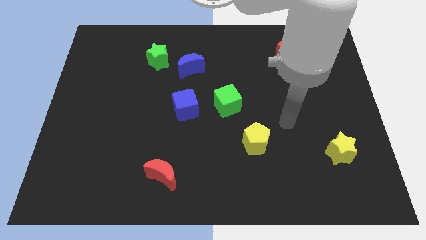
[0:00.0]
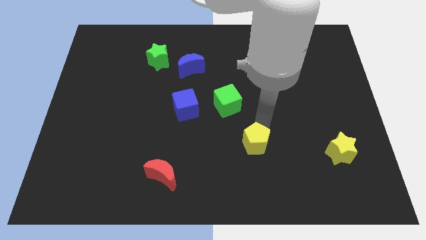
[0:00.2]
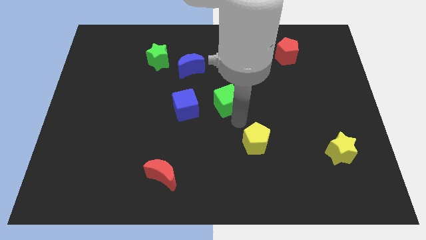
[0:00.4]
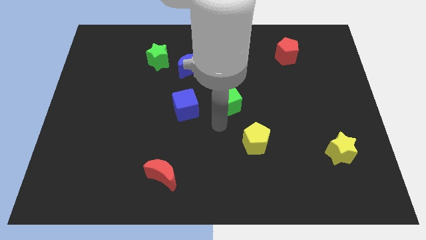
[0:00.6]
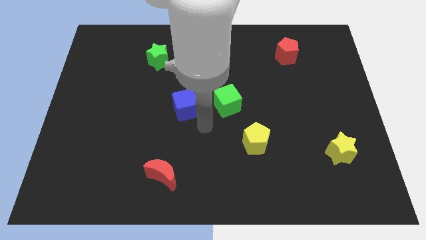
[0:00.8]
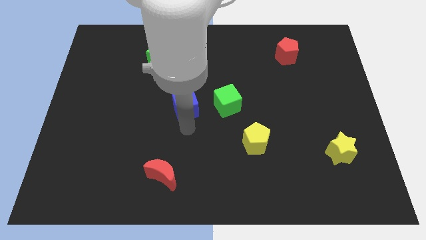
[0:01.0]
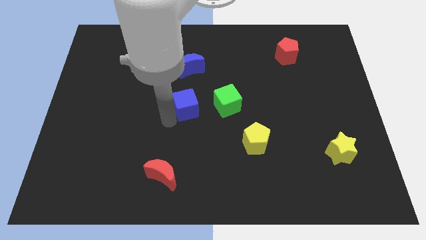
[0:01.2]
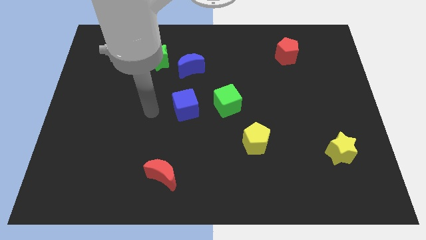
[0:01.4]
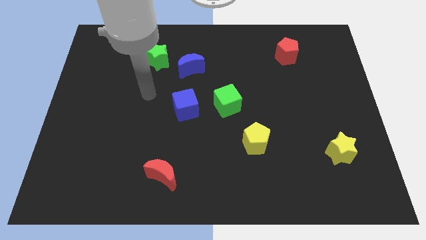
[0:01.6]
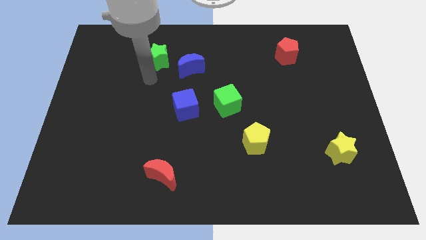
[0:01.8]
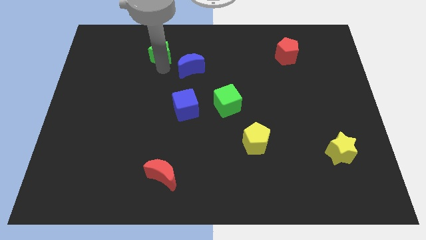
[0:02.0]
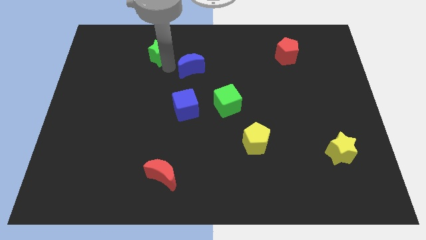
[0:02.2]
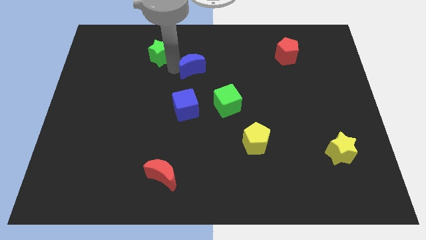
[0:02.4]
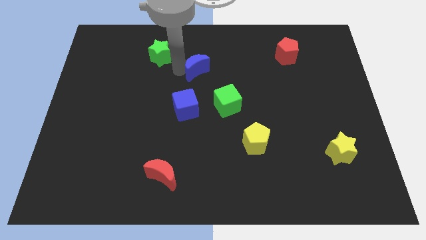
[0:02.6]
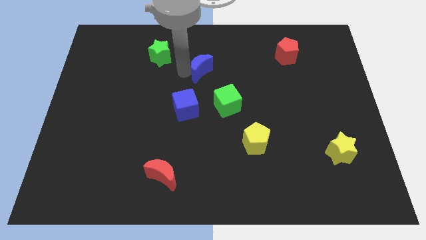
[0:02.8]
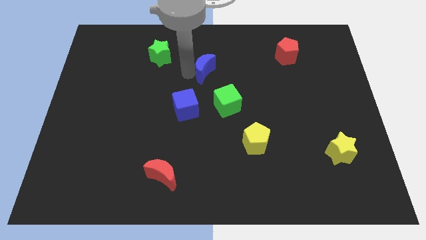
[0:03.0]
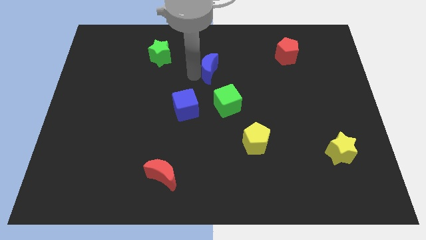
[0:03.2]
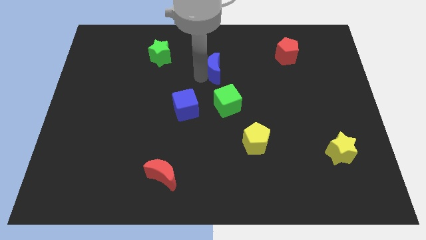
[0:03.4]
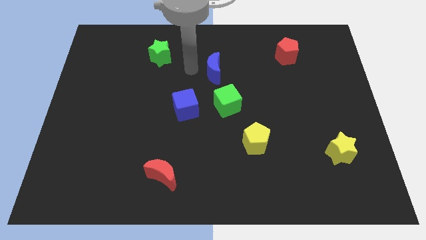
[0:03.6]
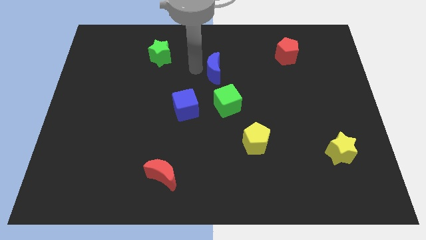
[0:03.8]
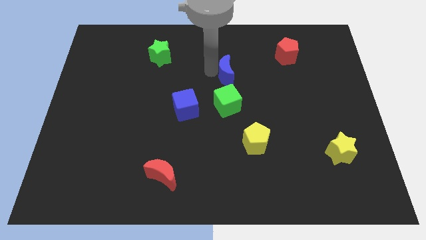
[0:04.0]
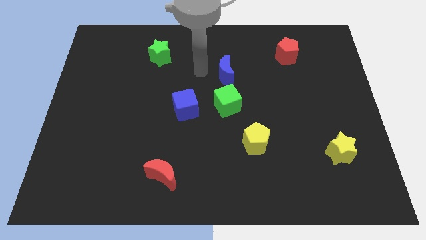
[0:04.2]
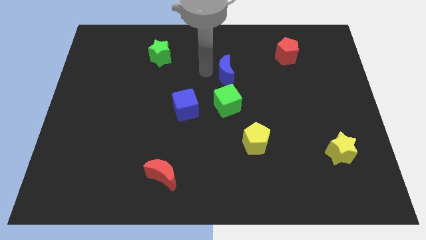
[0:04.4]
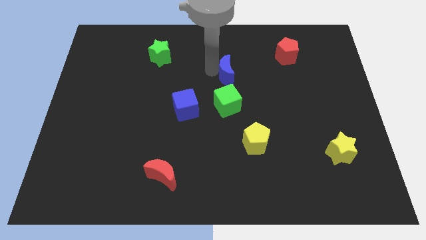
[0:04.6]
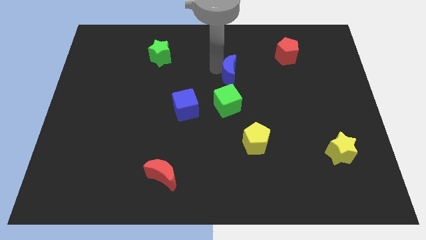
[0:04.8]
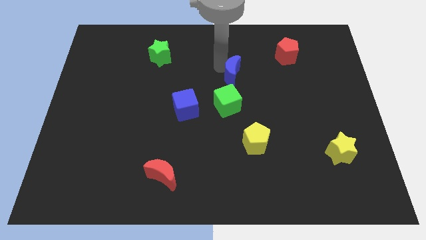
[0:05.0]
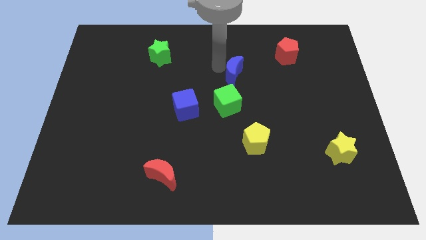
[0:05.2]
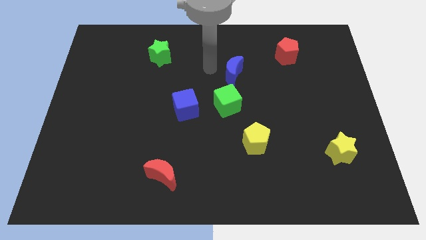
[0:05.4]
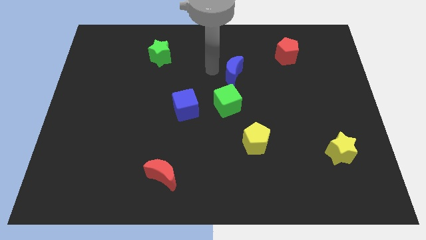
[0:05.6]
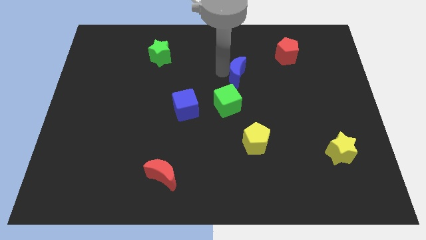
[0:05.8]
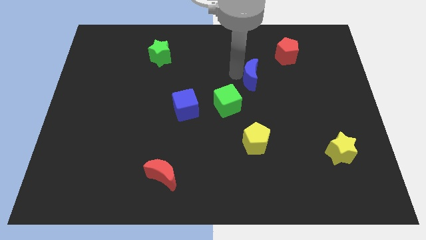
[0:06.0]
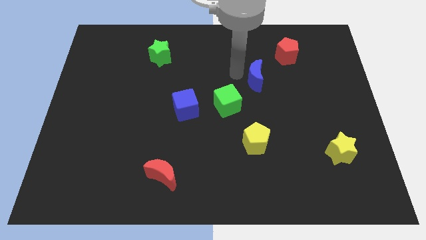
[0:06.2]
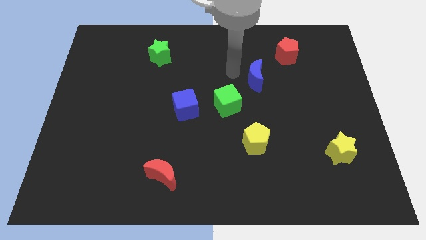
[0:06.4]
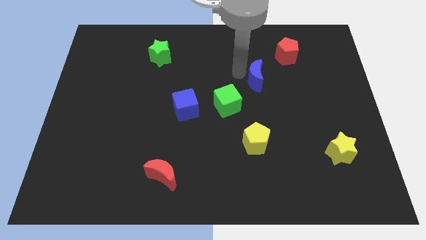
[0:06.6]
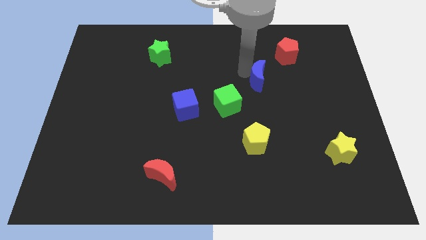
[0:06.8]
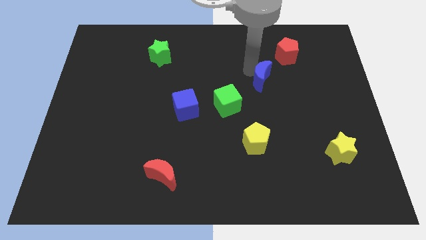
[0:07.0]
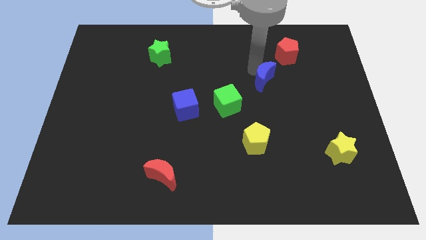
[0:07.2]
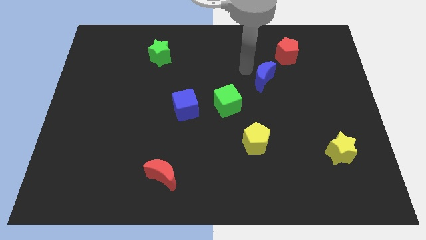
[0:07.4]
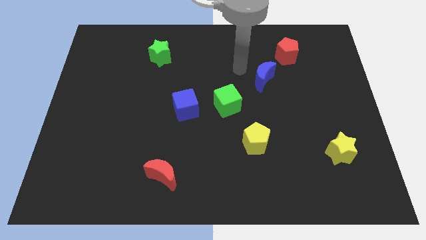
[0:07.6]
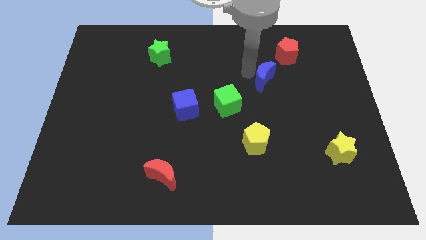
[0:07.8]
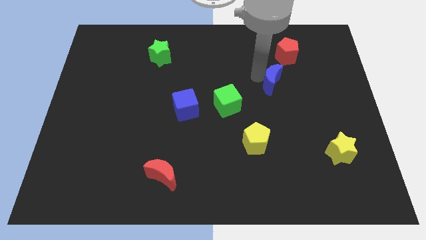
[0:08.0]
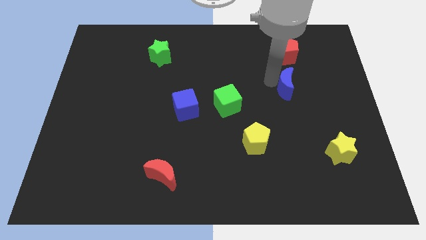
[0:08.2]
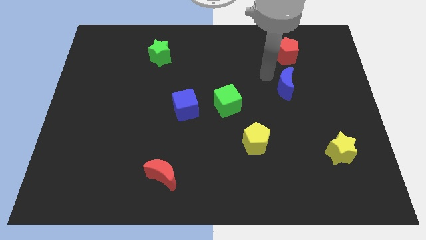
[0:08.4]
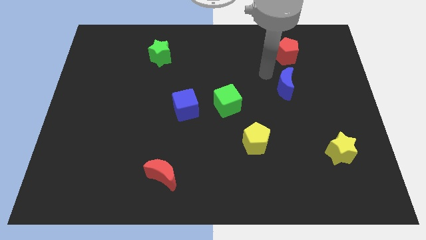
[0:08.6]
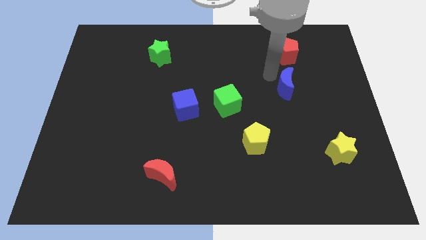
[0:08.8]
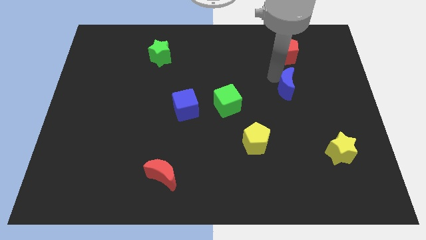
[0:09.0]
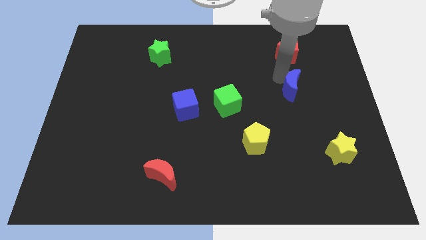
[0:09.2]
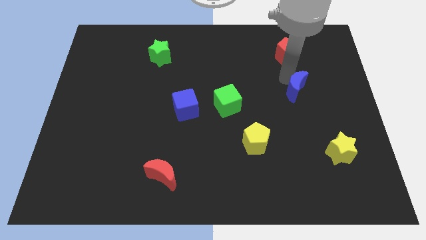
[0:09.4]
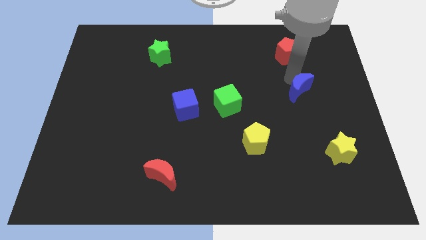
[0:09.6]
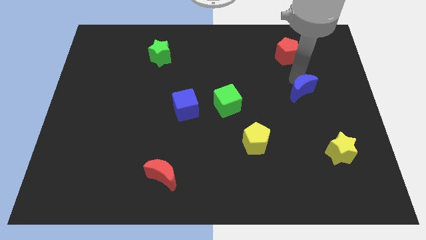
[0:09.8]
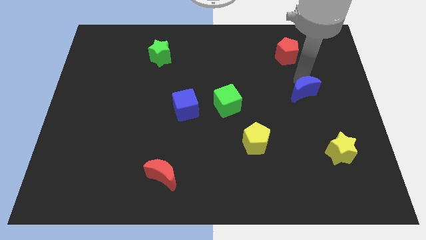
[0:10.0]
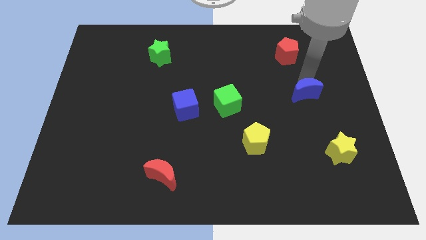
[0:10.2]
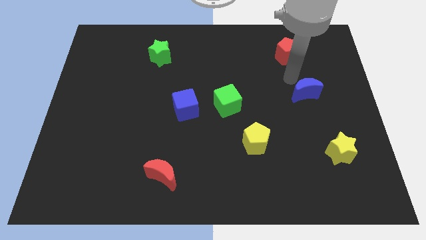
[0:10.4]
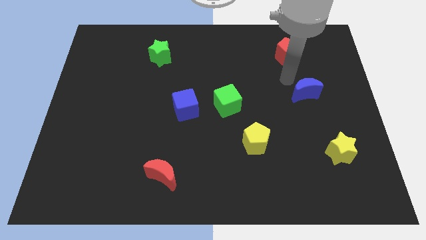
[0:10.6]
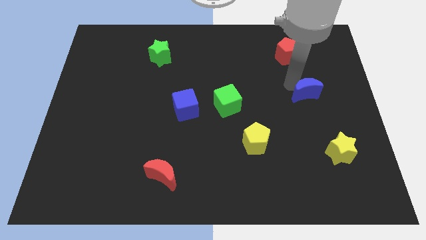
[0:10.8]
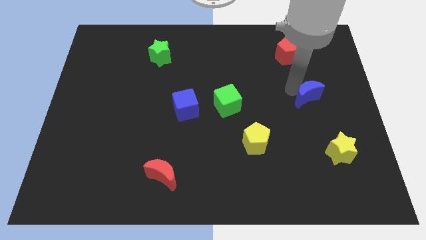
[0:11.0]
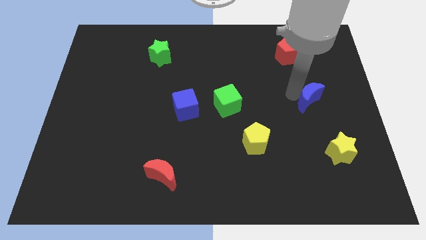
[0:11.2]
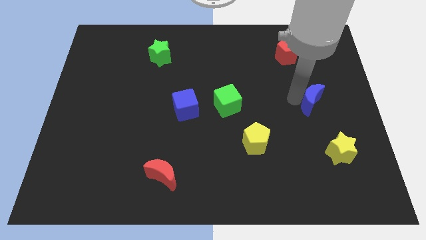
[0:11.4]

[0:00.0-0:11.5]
move the blue moon to the top of the yellow star
